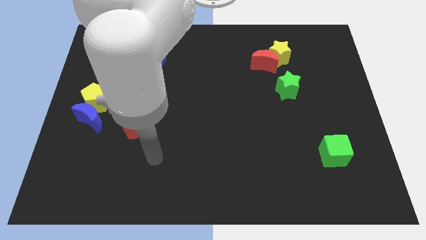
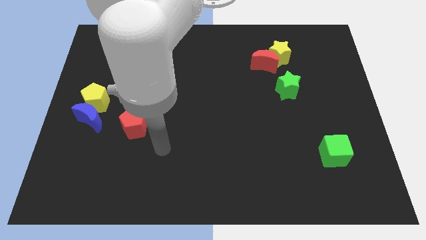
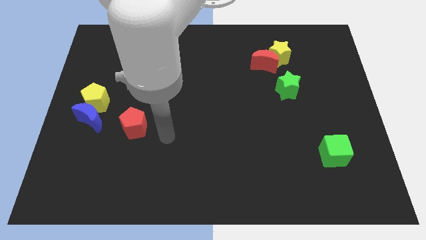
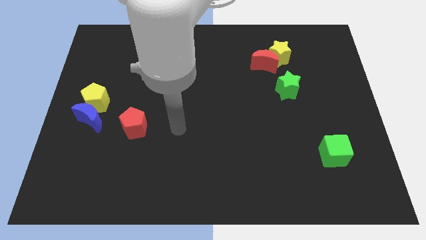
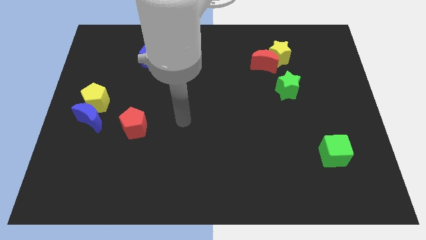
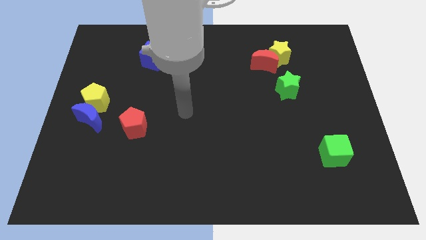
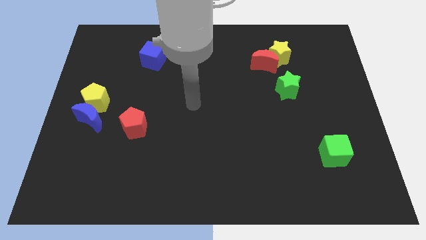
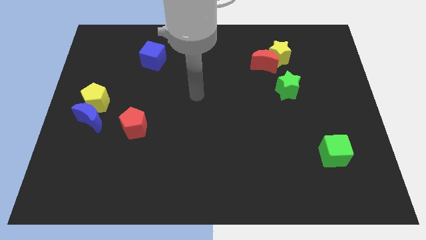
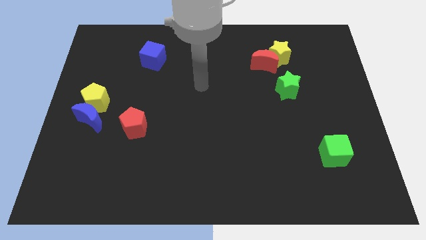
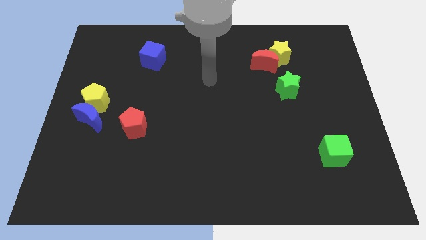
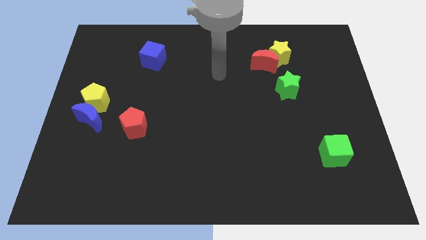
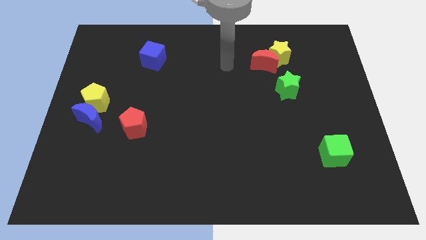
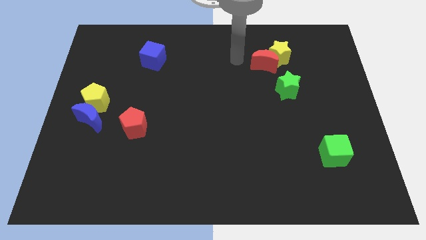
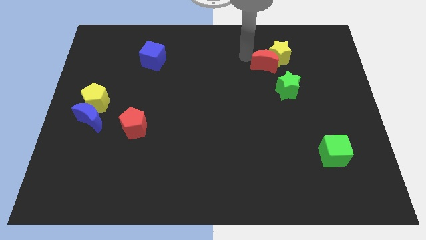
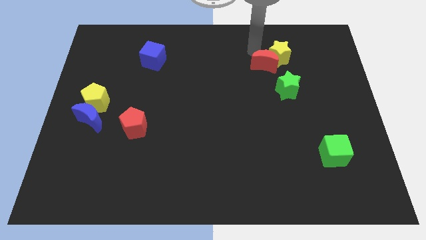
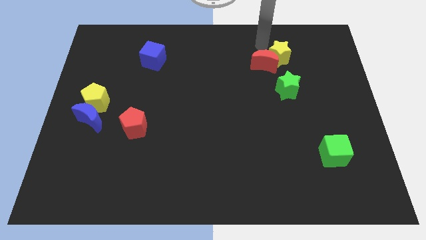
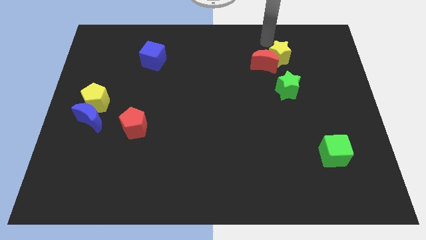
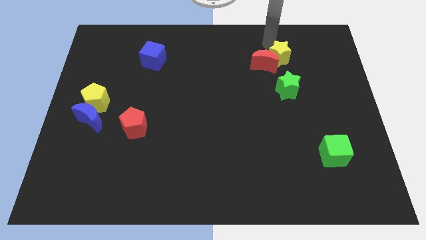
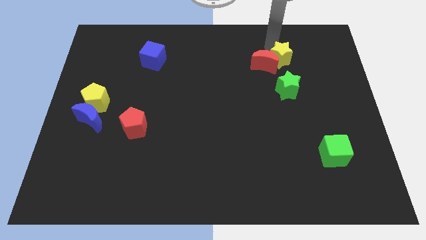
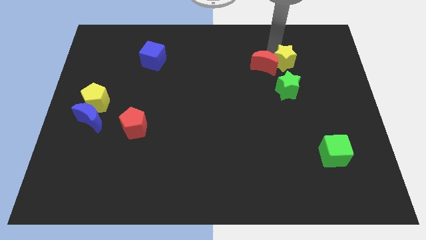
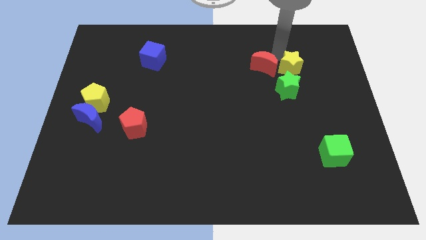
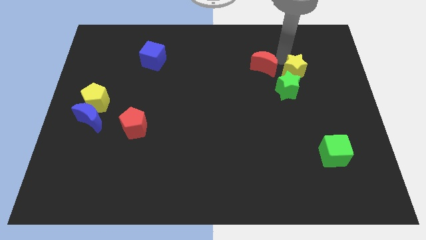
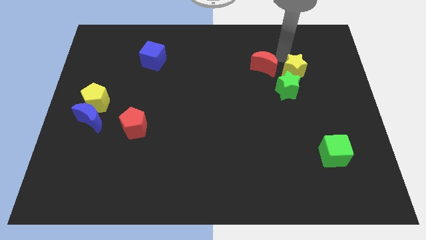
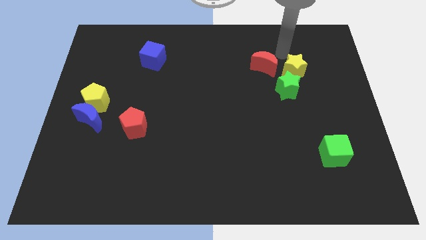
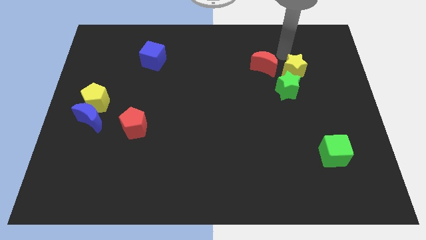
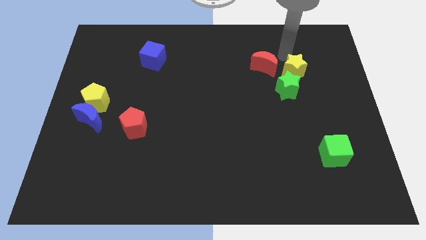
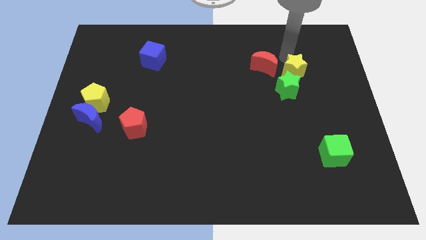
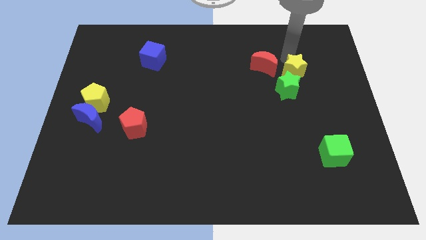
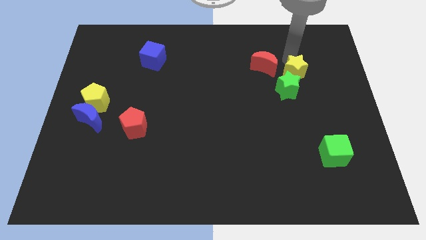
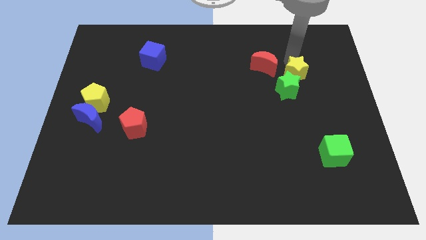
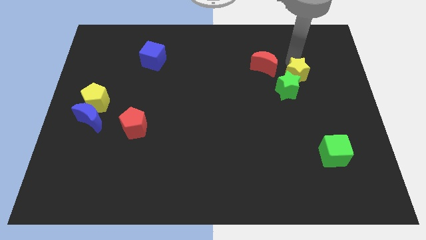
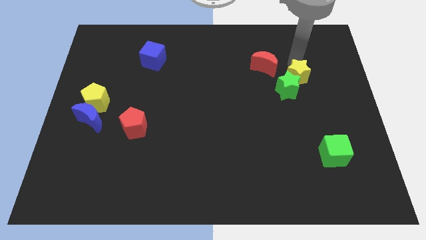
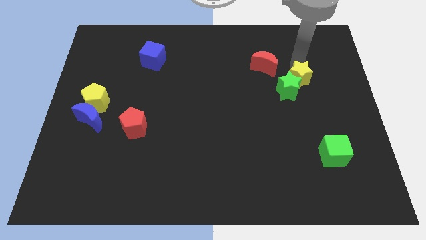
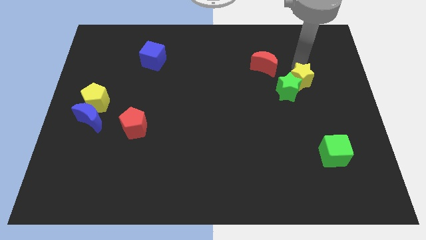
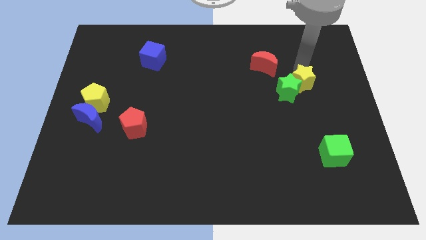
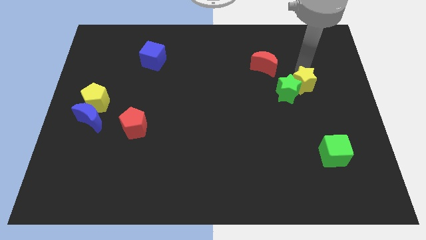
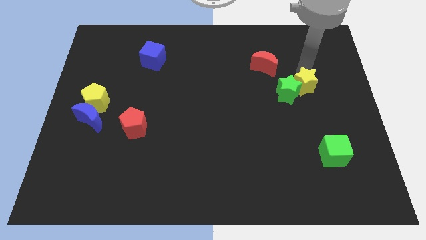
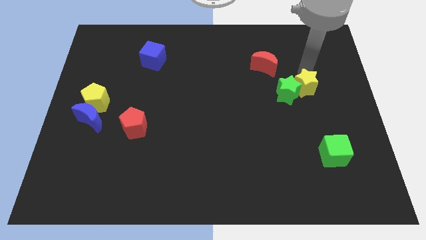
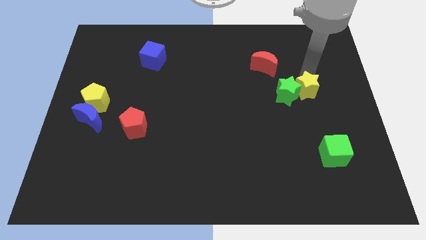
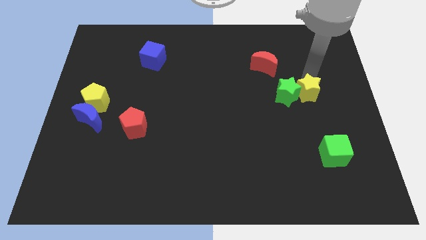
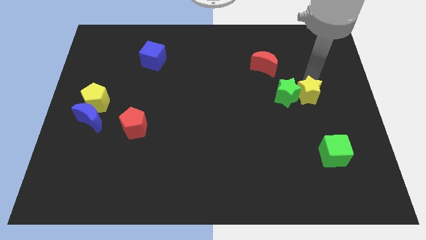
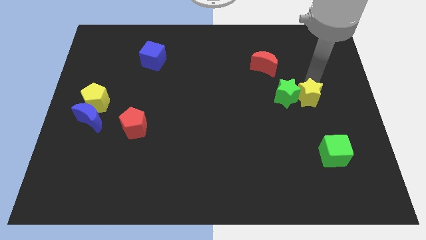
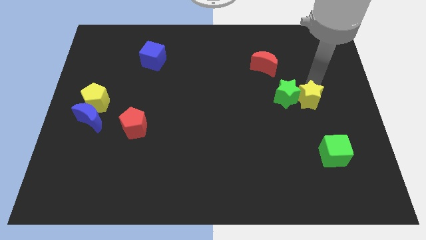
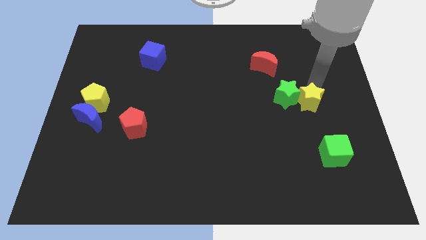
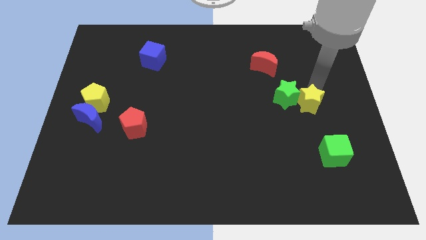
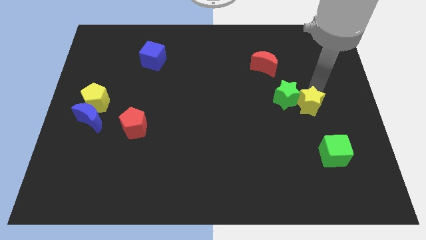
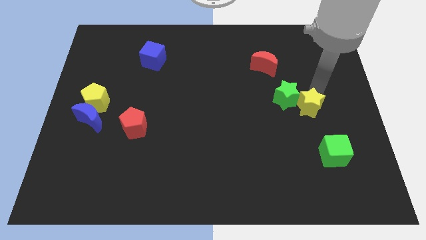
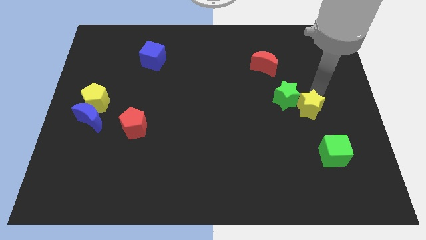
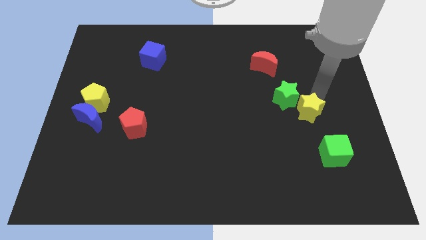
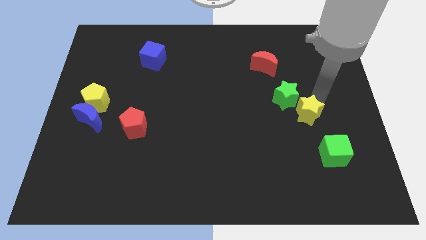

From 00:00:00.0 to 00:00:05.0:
move the yellow star to the bottom side of the green star

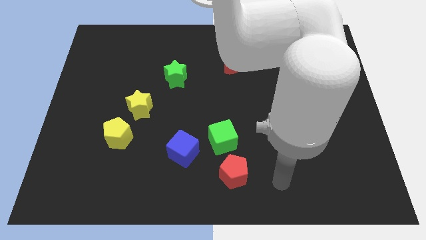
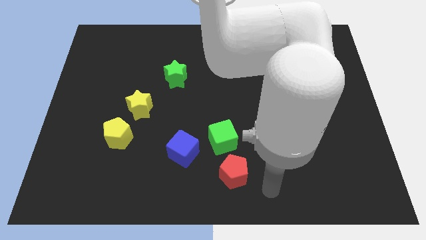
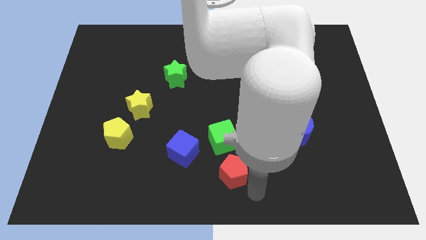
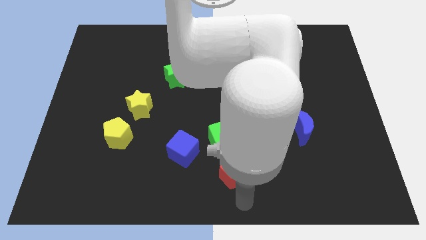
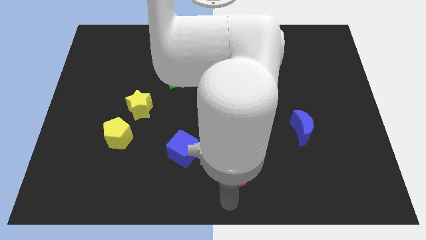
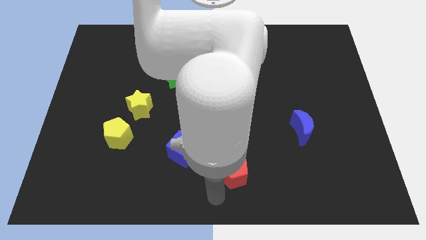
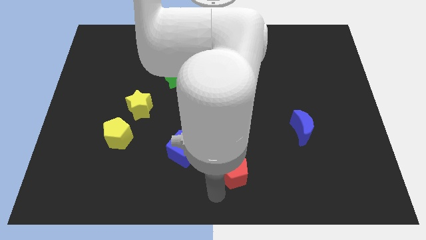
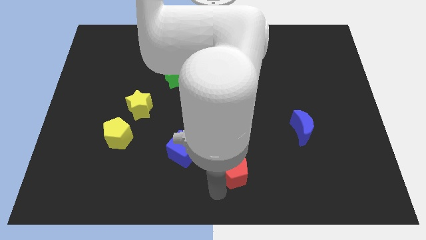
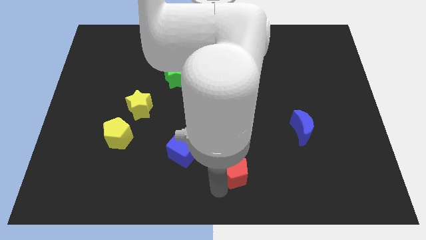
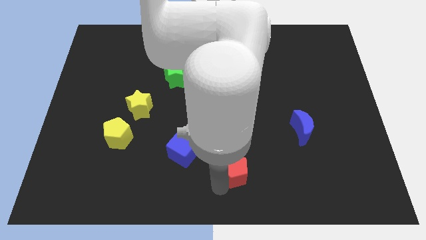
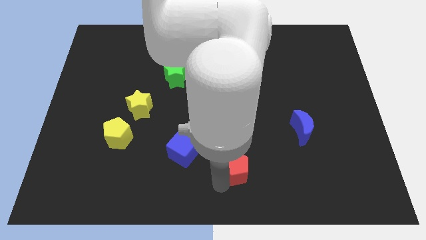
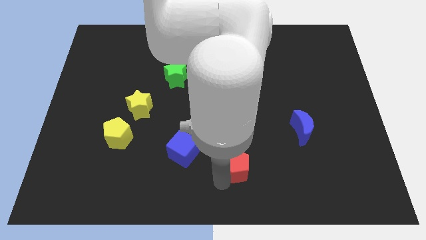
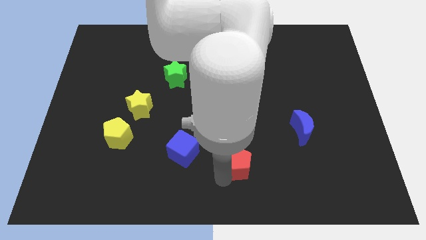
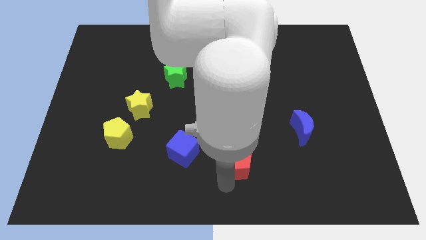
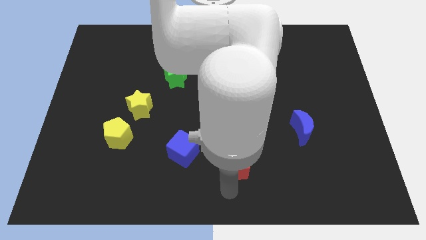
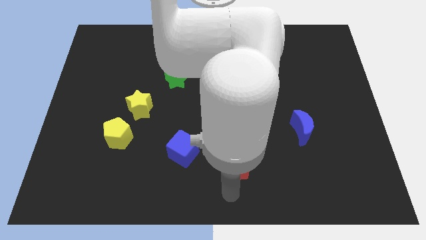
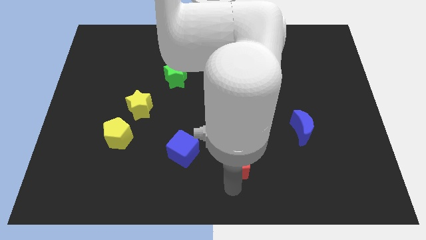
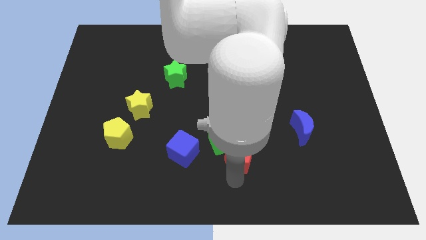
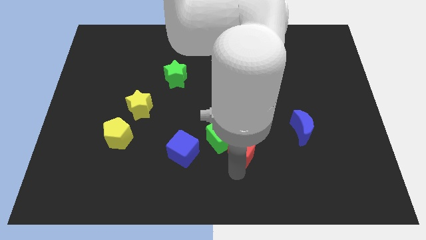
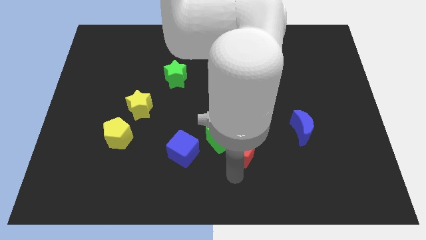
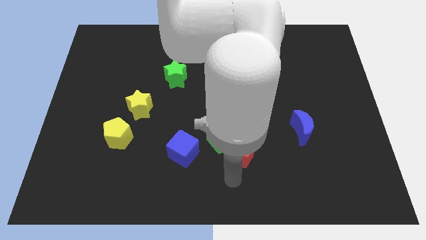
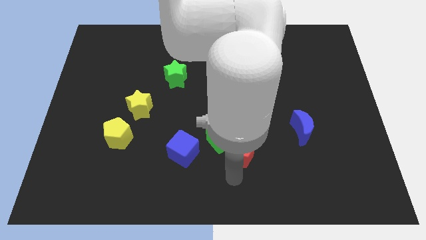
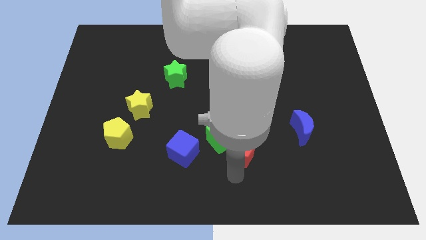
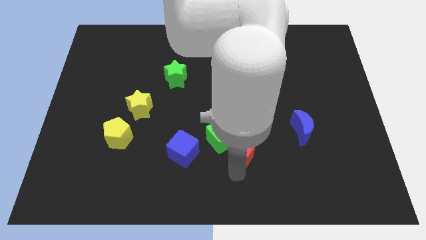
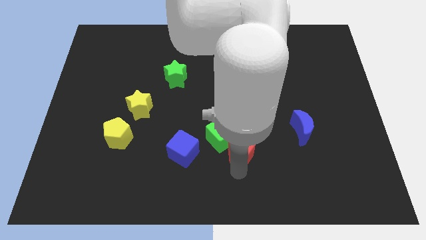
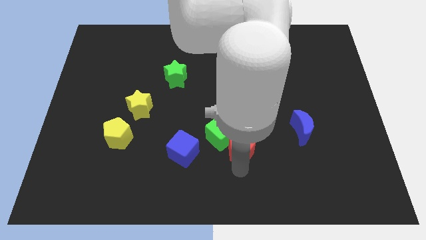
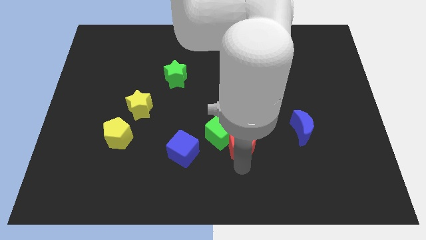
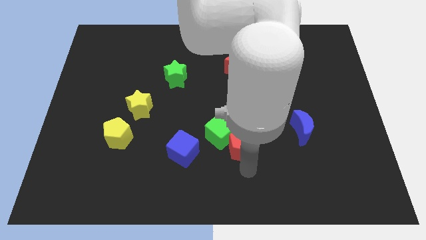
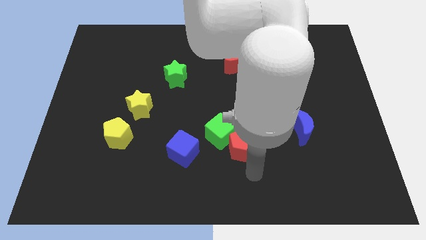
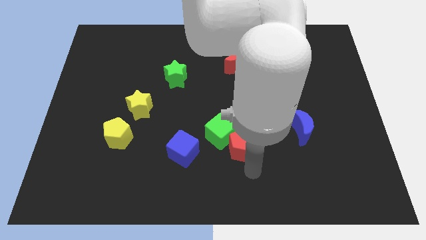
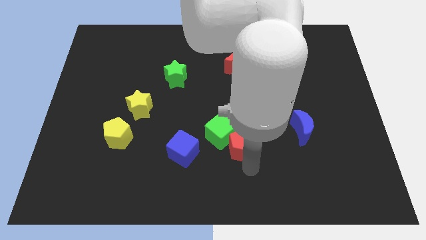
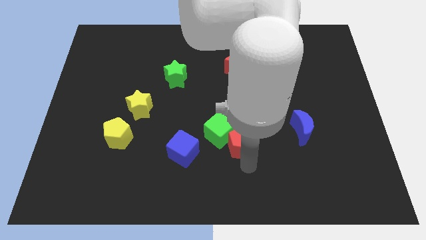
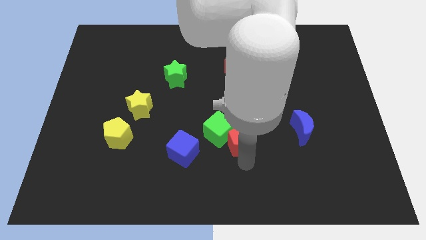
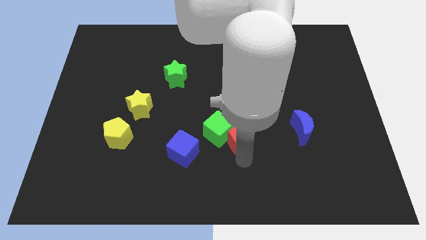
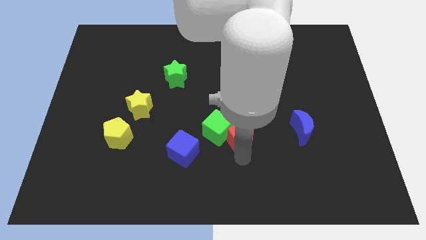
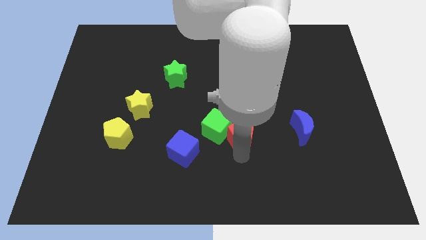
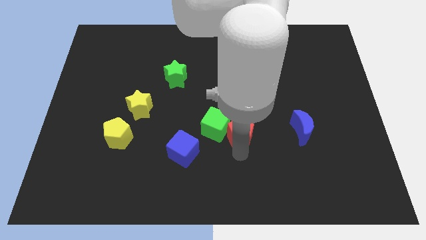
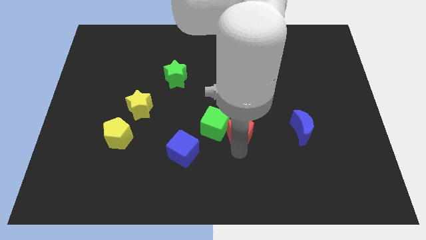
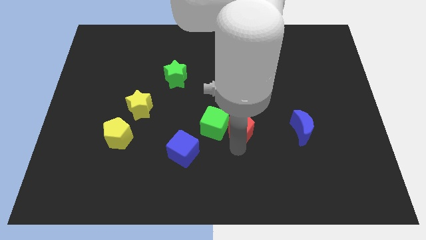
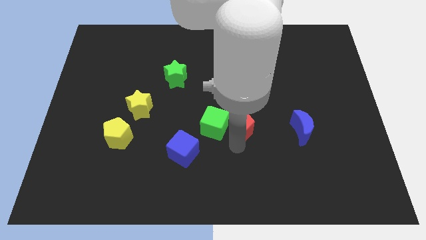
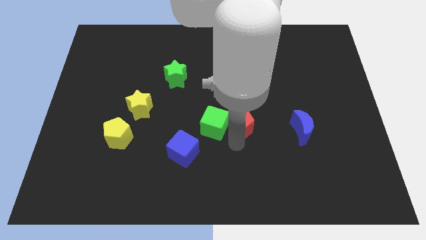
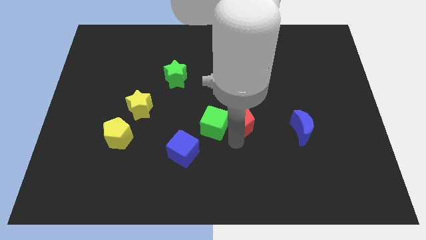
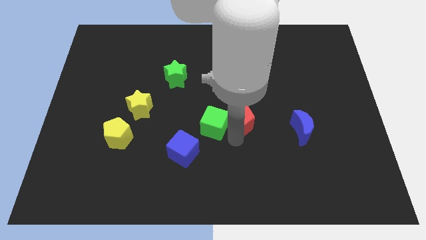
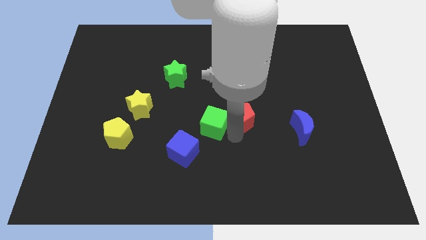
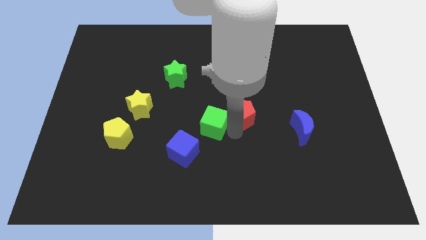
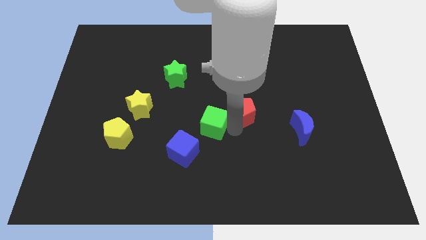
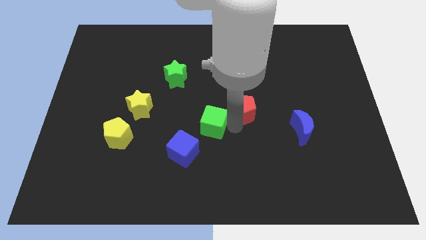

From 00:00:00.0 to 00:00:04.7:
move the red pentagon to the bottom side of the red moon
